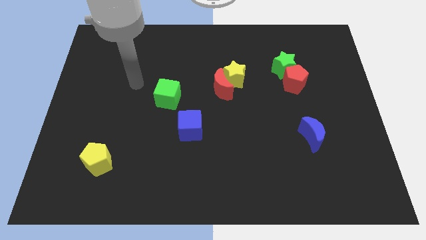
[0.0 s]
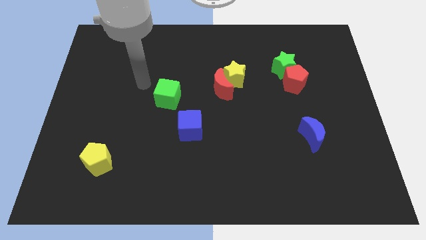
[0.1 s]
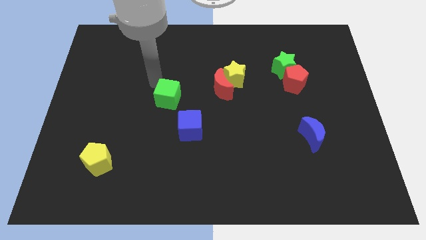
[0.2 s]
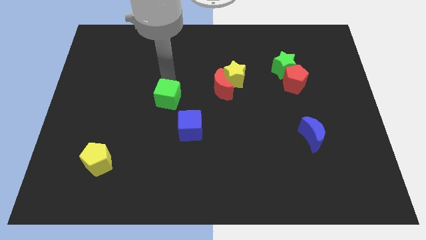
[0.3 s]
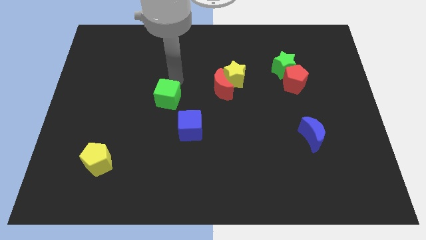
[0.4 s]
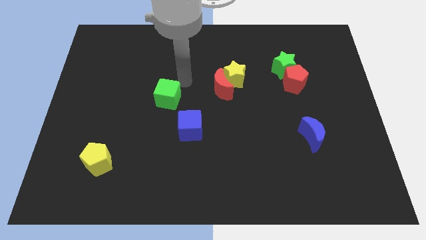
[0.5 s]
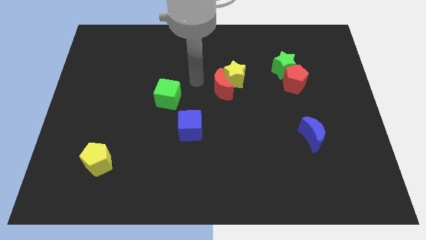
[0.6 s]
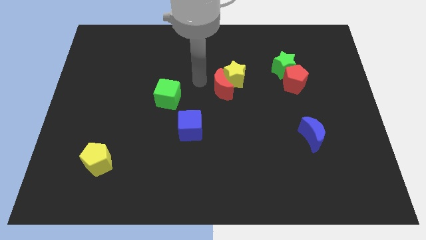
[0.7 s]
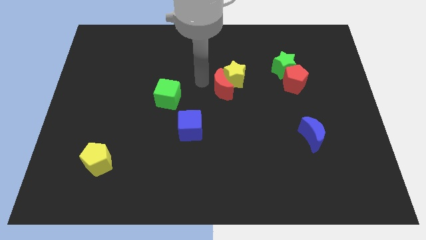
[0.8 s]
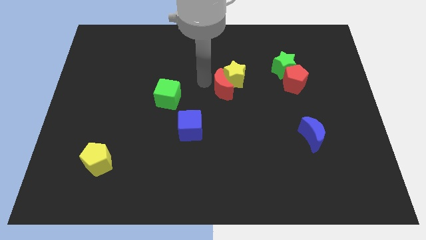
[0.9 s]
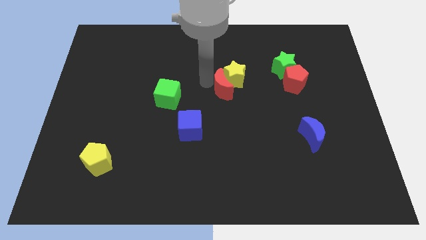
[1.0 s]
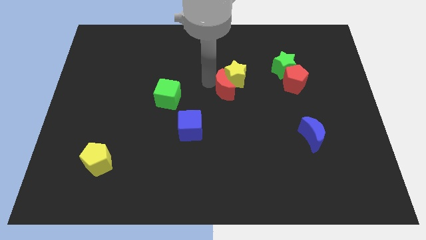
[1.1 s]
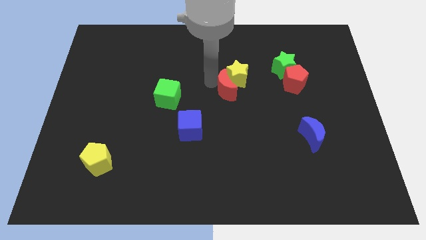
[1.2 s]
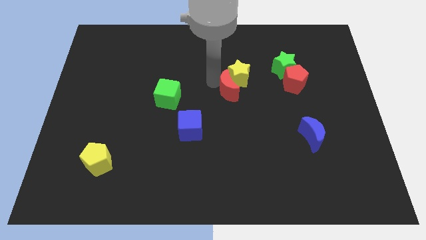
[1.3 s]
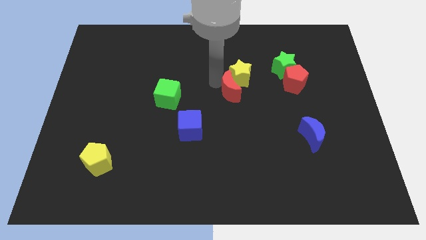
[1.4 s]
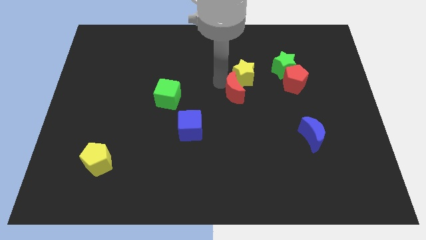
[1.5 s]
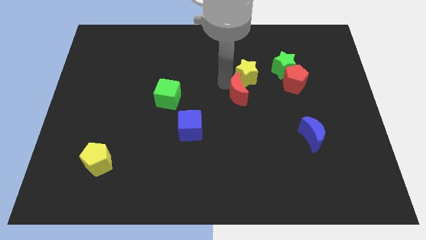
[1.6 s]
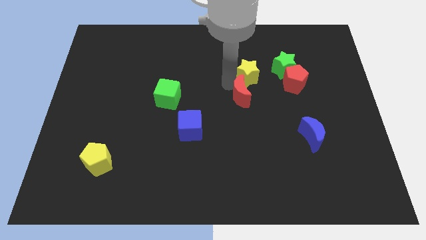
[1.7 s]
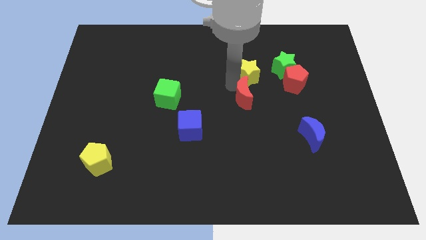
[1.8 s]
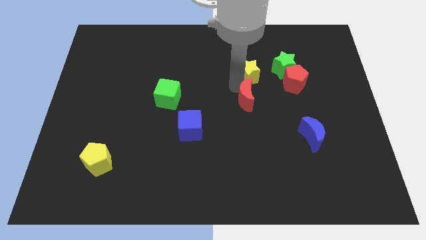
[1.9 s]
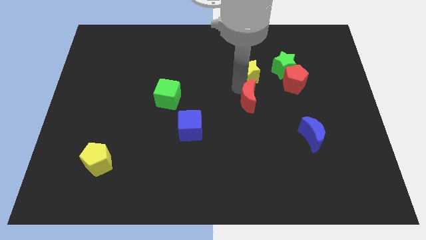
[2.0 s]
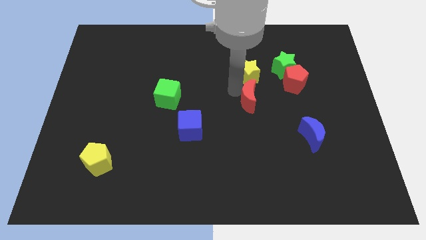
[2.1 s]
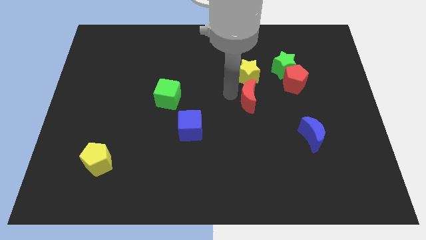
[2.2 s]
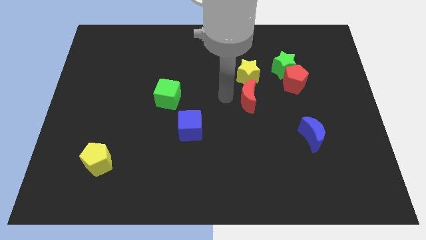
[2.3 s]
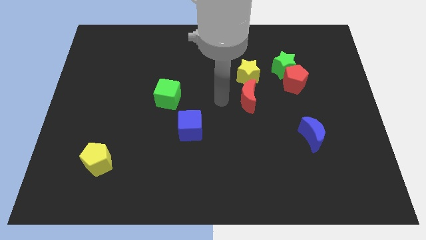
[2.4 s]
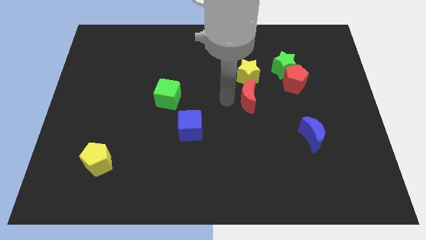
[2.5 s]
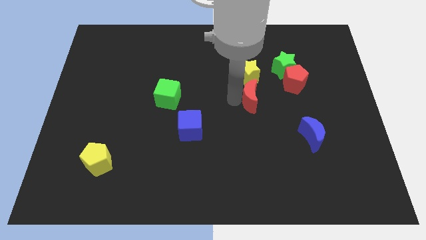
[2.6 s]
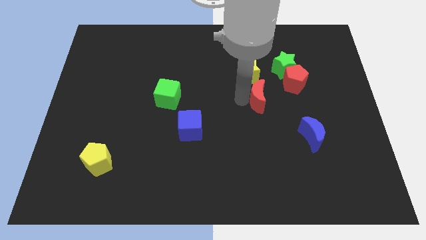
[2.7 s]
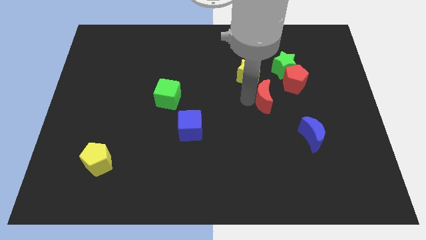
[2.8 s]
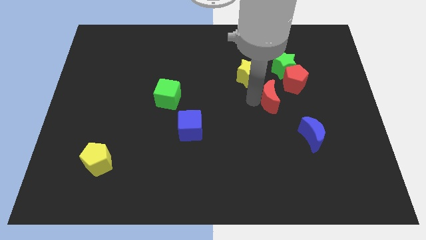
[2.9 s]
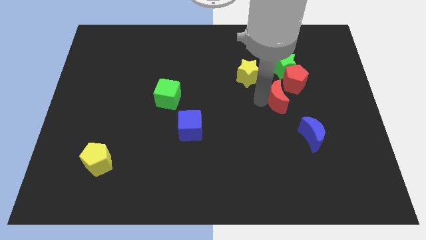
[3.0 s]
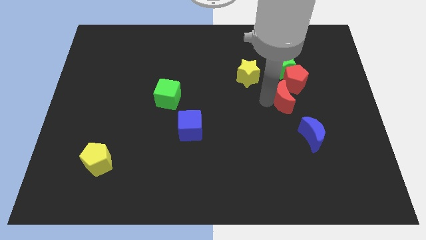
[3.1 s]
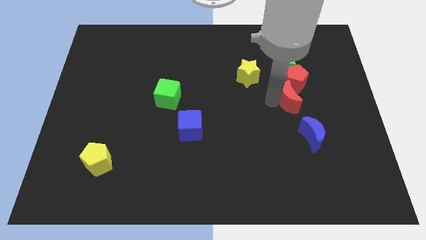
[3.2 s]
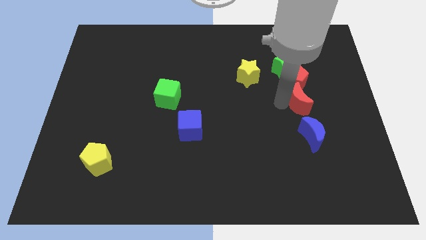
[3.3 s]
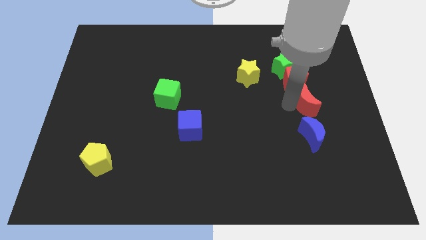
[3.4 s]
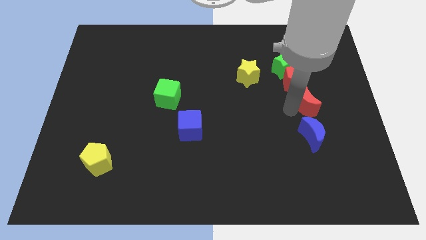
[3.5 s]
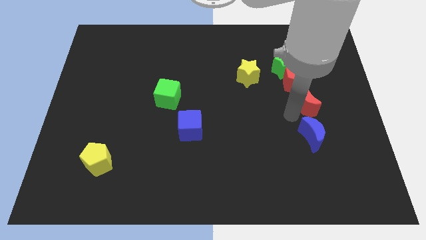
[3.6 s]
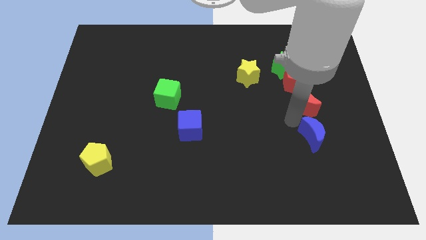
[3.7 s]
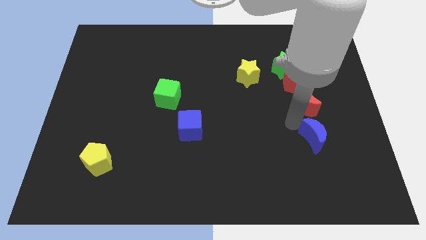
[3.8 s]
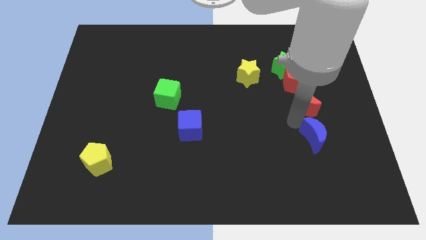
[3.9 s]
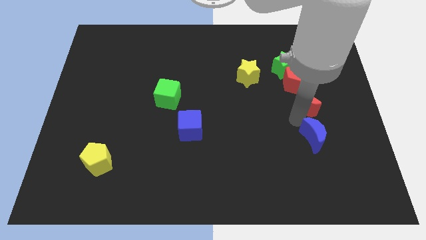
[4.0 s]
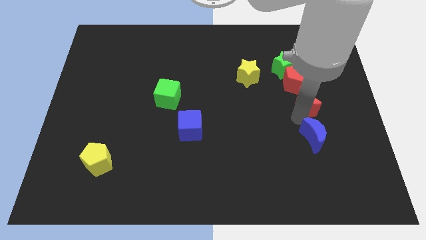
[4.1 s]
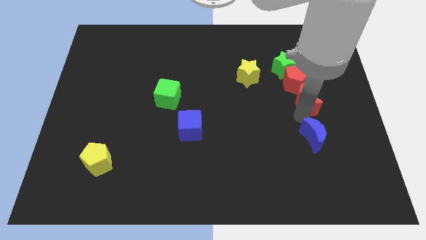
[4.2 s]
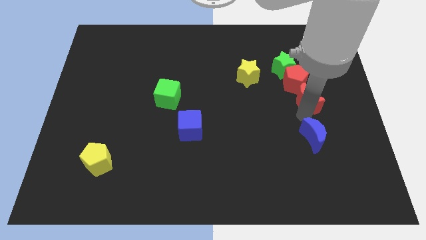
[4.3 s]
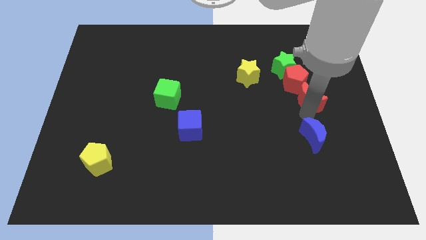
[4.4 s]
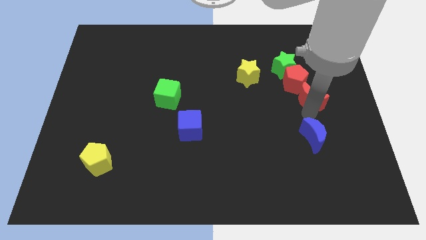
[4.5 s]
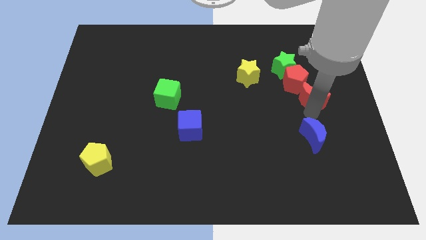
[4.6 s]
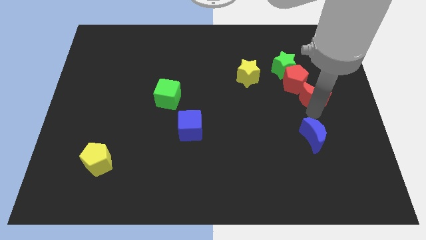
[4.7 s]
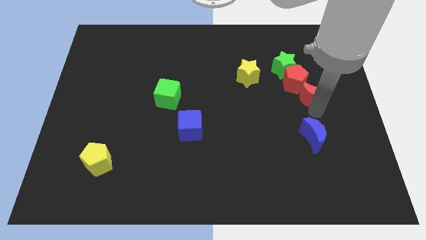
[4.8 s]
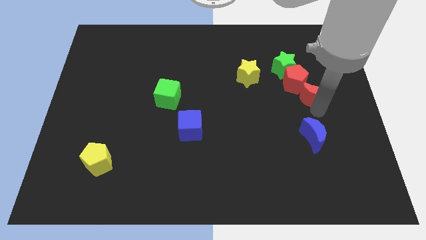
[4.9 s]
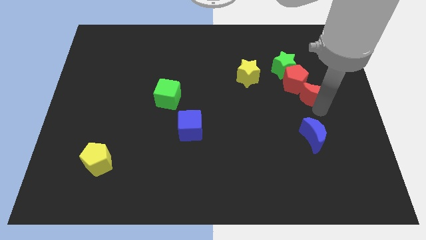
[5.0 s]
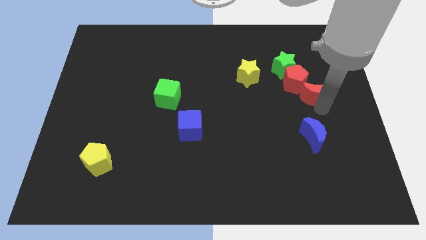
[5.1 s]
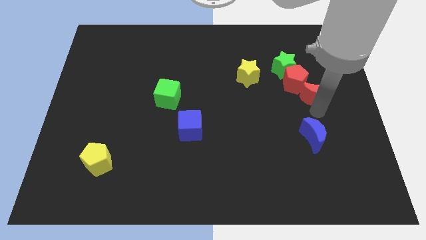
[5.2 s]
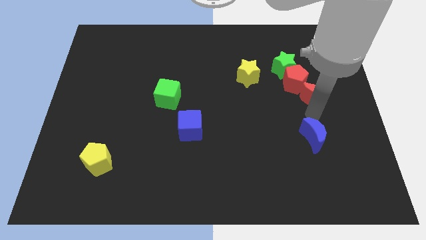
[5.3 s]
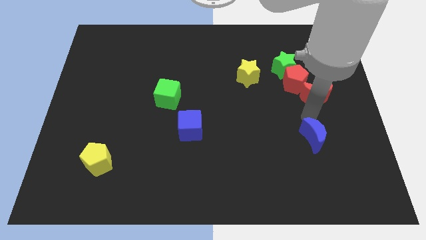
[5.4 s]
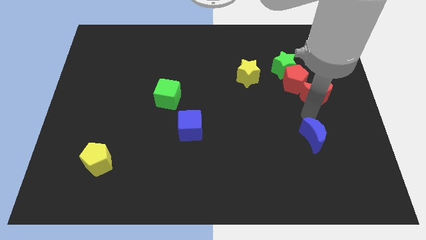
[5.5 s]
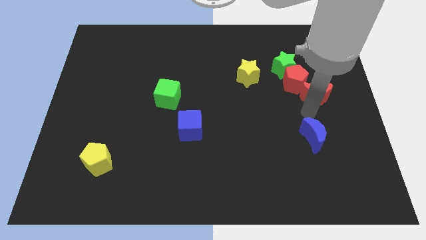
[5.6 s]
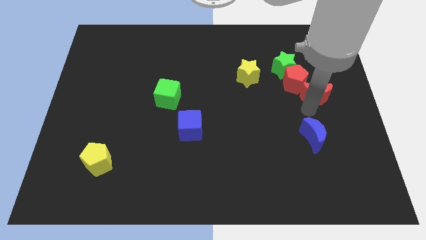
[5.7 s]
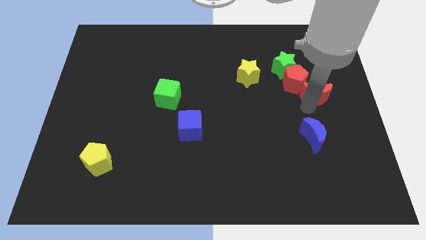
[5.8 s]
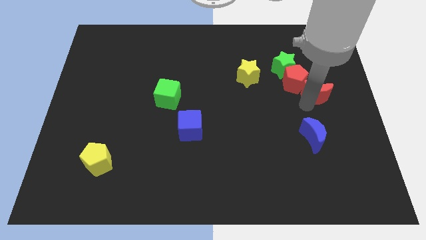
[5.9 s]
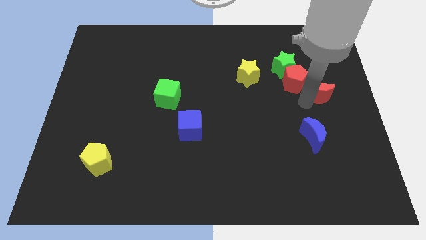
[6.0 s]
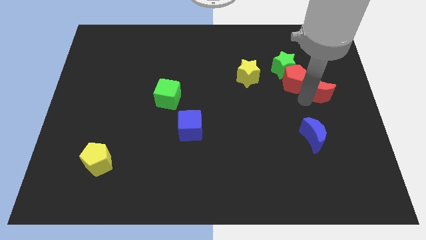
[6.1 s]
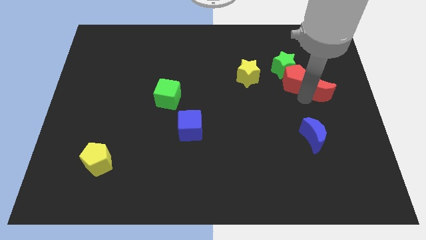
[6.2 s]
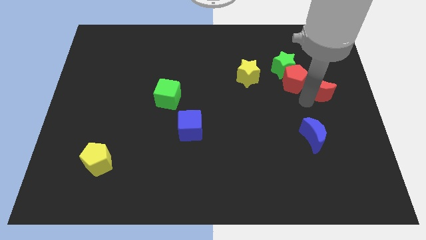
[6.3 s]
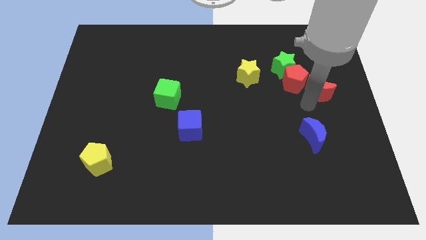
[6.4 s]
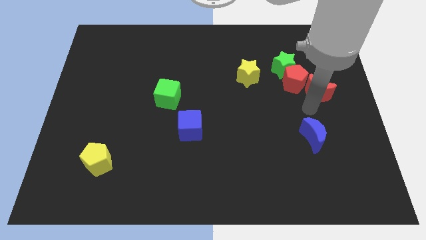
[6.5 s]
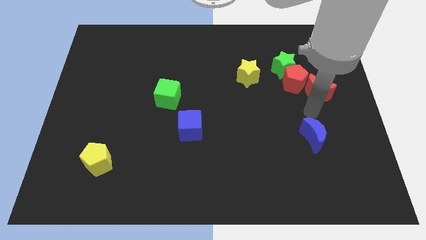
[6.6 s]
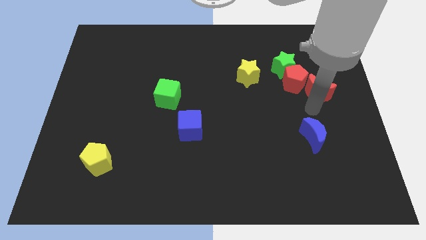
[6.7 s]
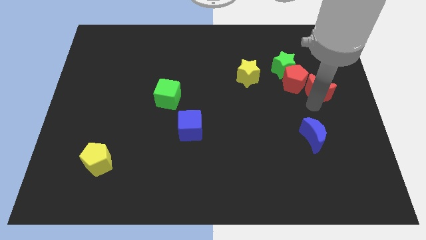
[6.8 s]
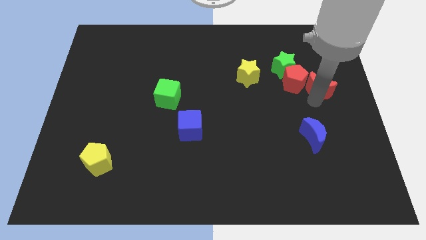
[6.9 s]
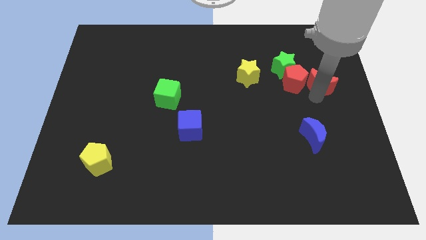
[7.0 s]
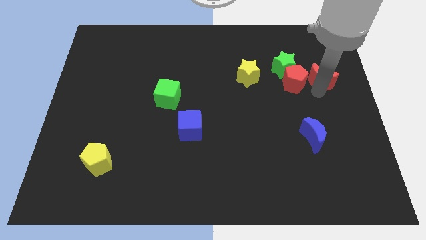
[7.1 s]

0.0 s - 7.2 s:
move the red moon just right of the green star
